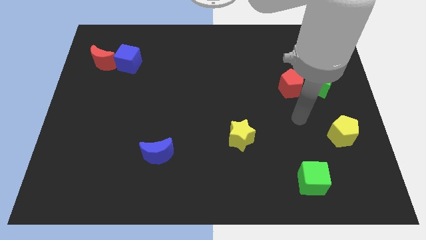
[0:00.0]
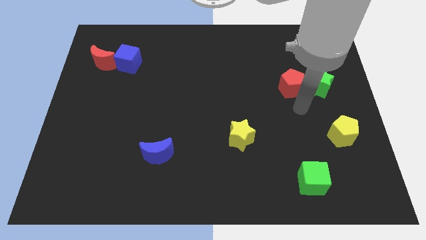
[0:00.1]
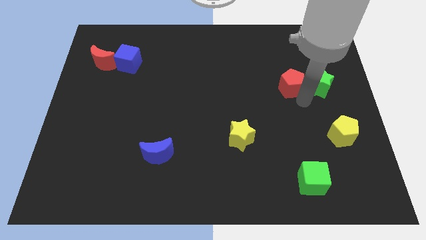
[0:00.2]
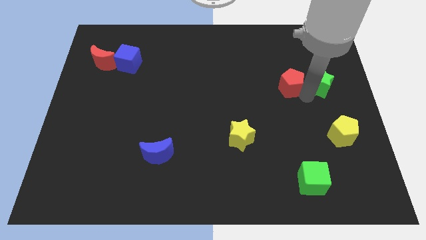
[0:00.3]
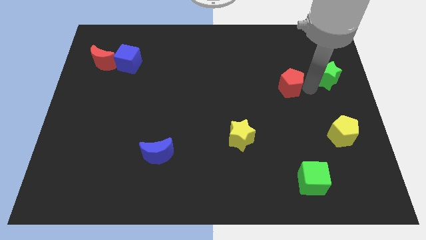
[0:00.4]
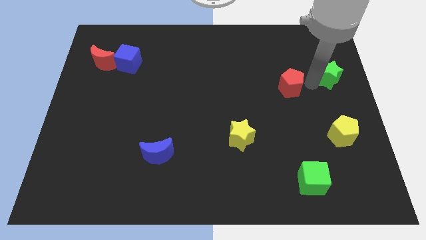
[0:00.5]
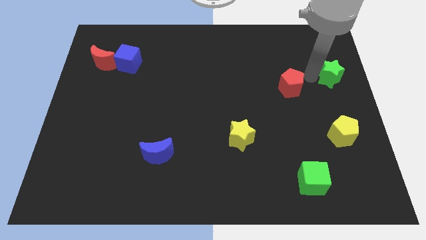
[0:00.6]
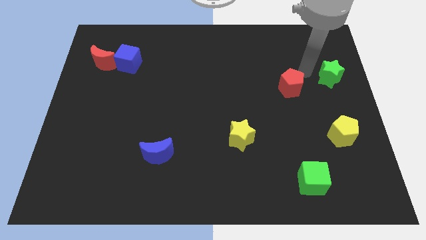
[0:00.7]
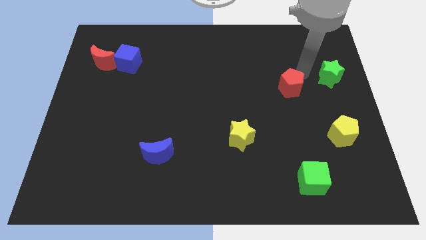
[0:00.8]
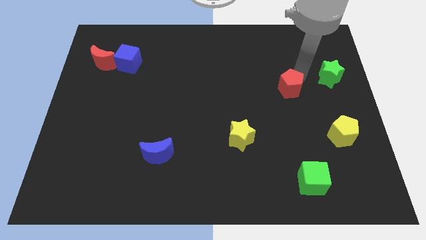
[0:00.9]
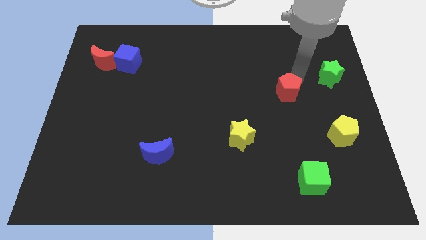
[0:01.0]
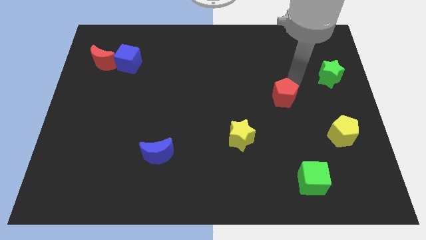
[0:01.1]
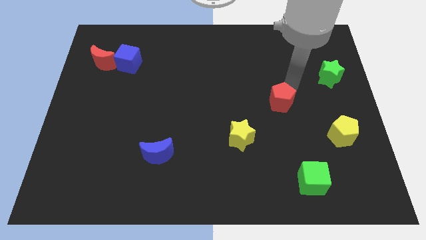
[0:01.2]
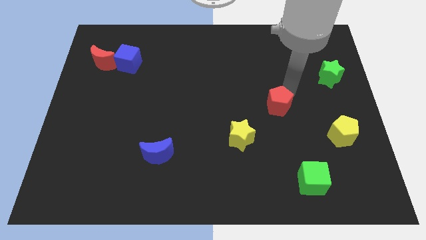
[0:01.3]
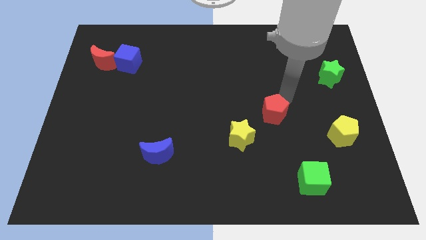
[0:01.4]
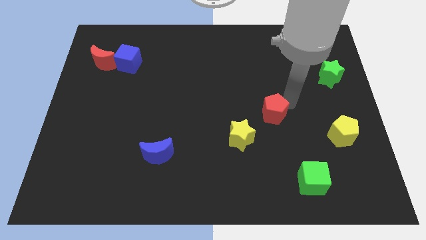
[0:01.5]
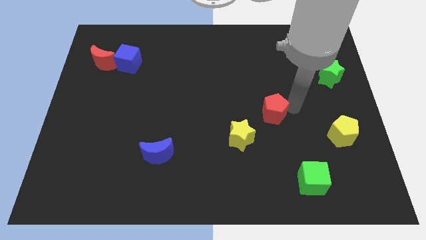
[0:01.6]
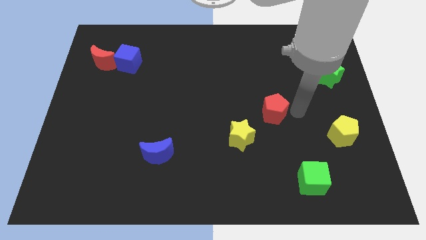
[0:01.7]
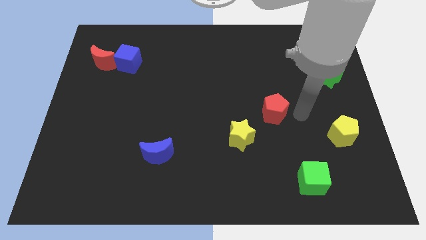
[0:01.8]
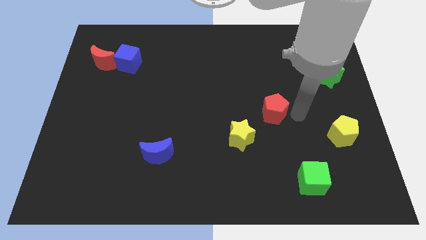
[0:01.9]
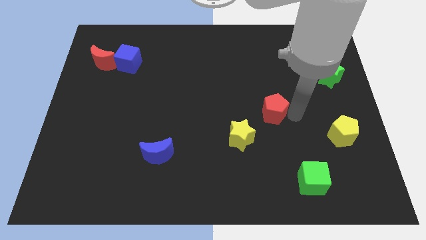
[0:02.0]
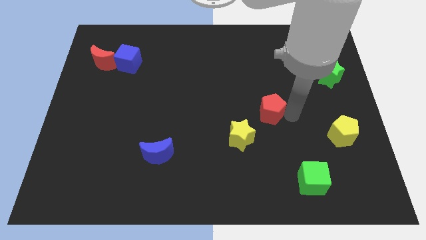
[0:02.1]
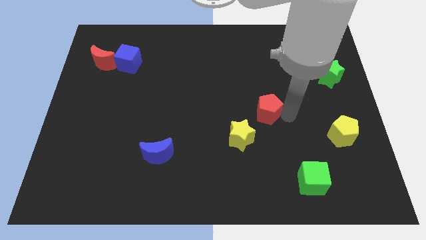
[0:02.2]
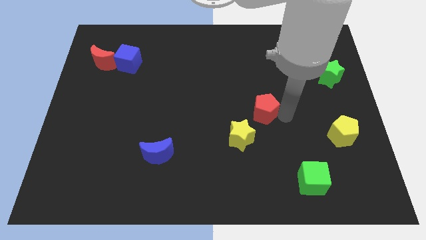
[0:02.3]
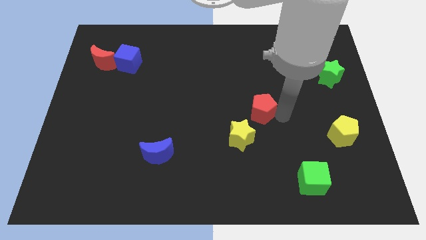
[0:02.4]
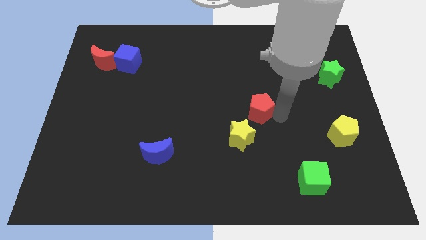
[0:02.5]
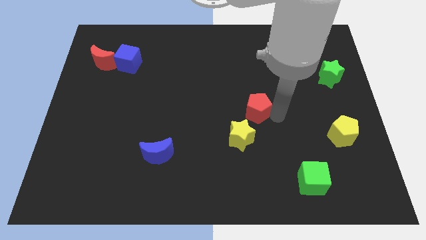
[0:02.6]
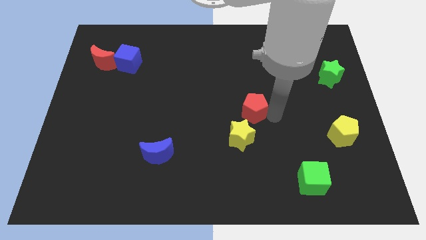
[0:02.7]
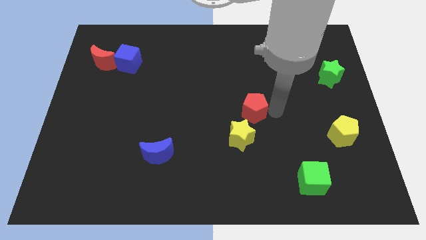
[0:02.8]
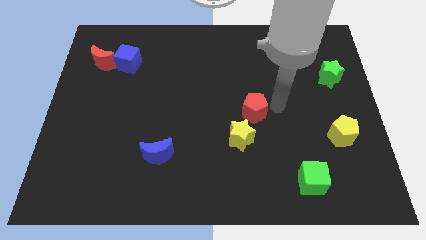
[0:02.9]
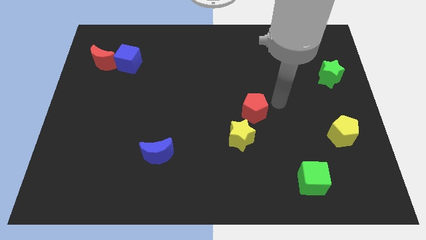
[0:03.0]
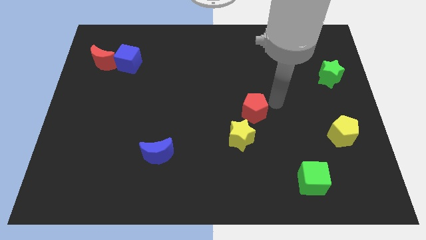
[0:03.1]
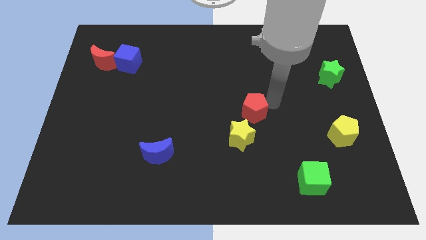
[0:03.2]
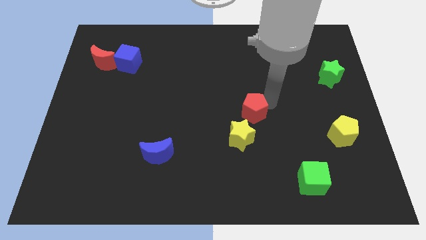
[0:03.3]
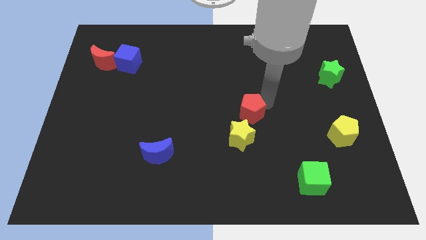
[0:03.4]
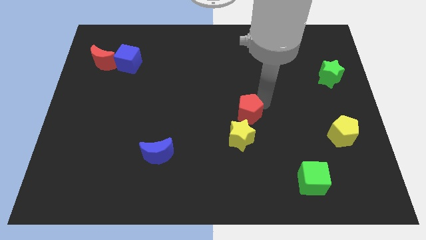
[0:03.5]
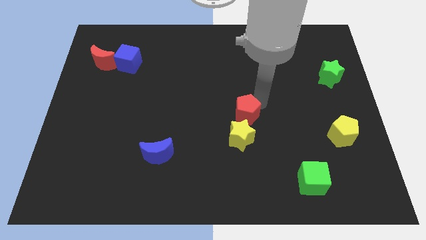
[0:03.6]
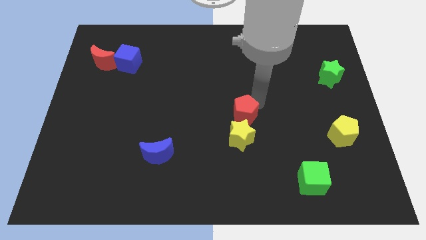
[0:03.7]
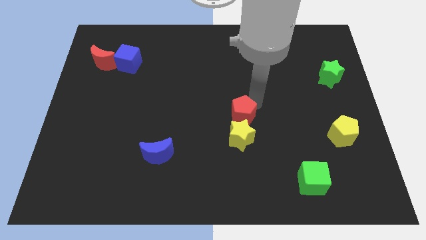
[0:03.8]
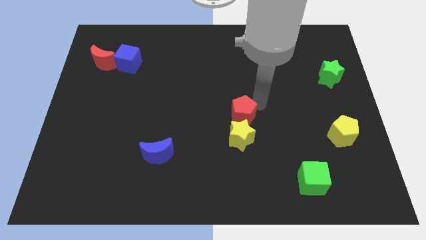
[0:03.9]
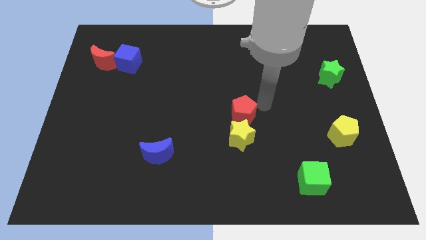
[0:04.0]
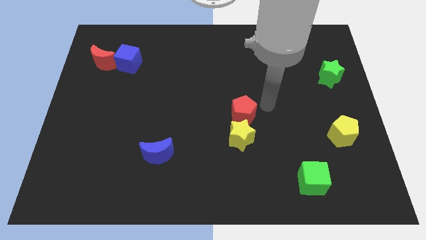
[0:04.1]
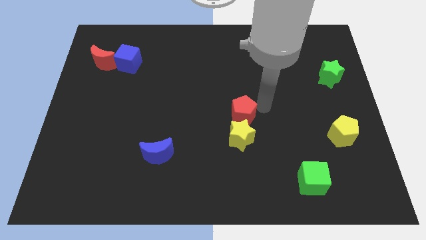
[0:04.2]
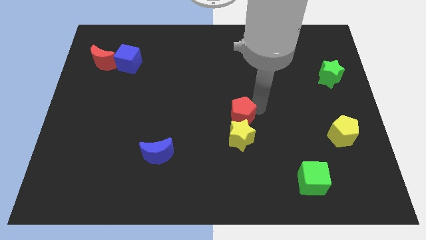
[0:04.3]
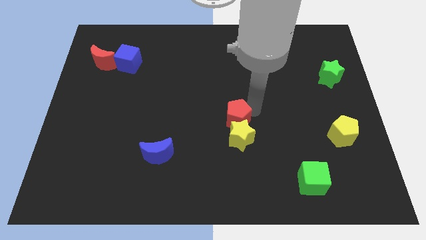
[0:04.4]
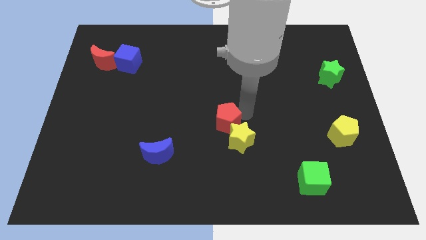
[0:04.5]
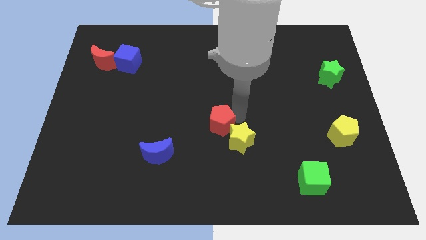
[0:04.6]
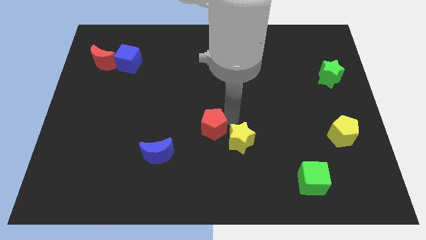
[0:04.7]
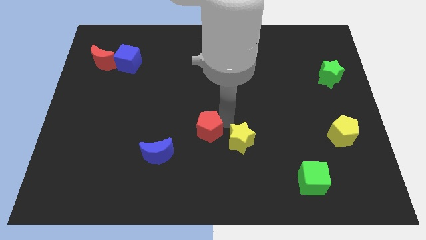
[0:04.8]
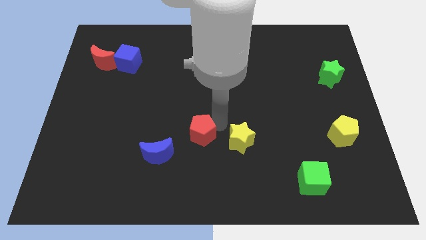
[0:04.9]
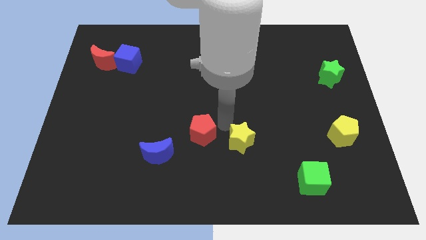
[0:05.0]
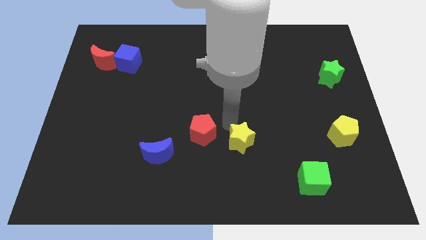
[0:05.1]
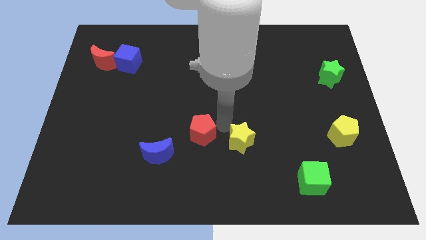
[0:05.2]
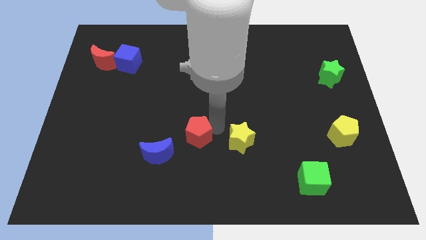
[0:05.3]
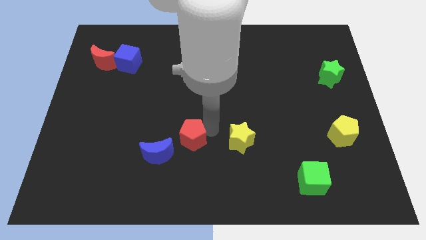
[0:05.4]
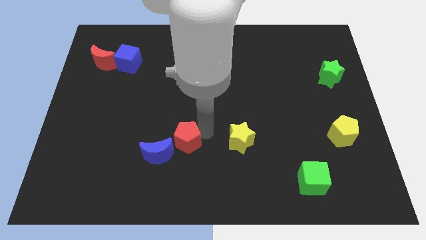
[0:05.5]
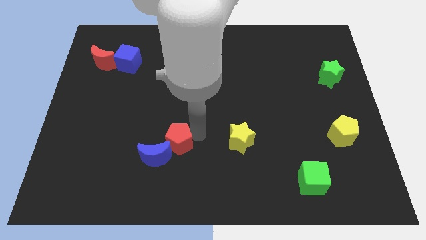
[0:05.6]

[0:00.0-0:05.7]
slide the red pentagon close to the blue moon

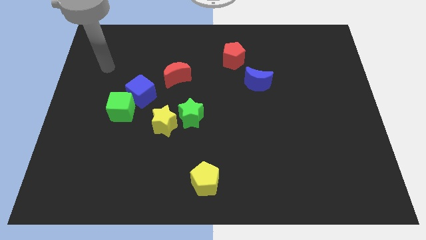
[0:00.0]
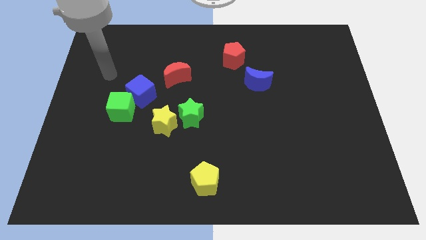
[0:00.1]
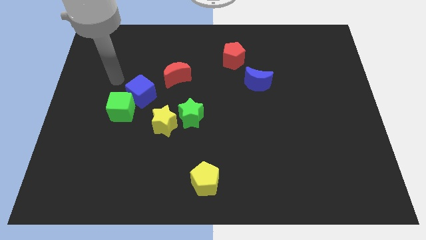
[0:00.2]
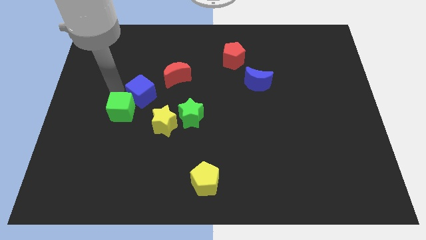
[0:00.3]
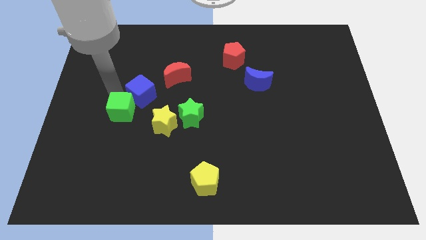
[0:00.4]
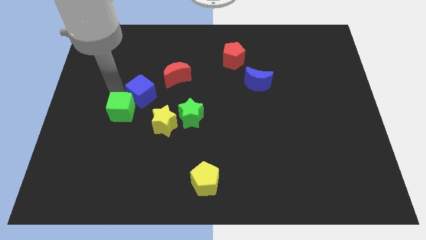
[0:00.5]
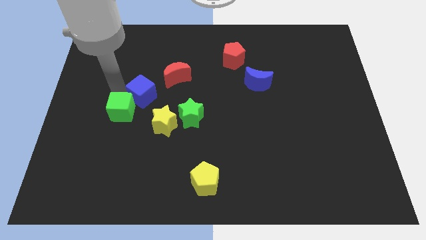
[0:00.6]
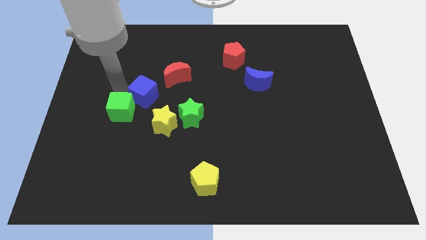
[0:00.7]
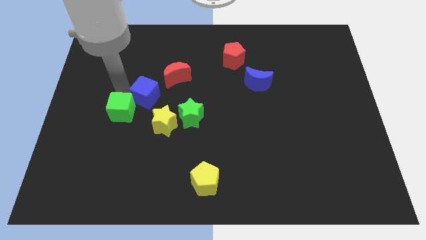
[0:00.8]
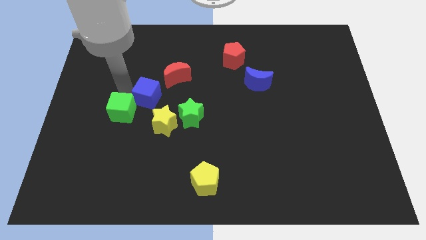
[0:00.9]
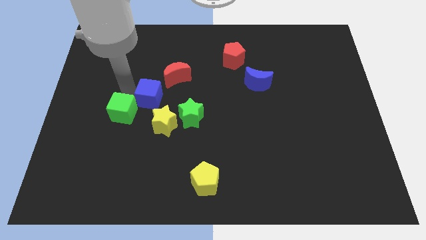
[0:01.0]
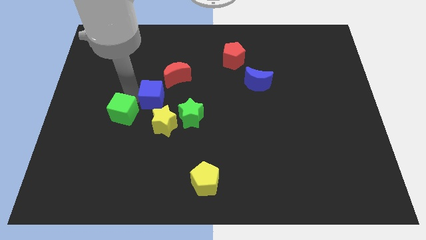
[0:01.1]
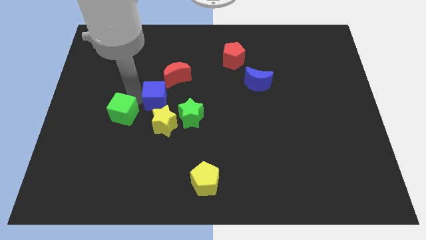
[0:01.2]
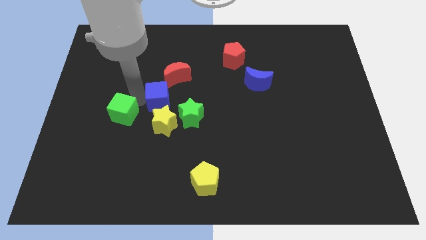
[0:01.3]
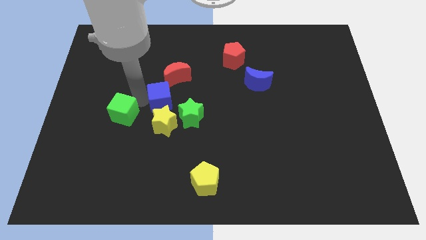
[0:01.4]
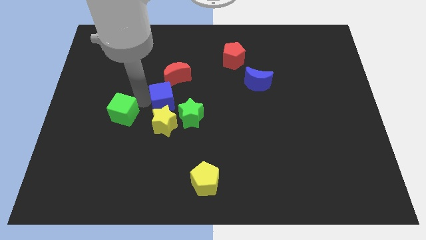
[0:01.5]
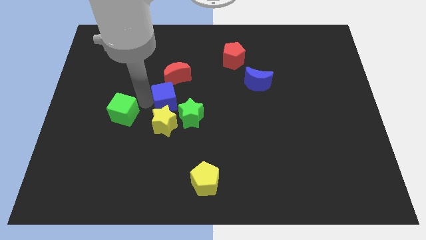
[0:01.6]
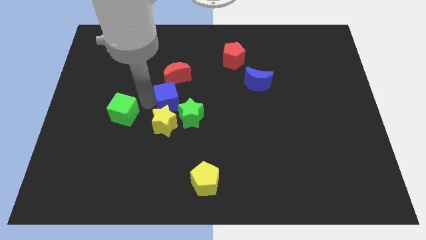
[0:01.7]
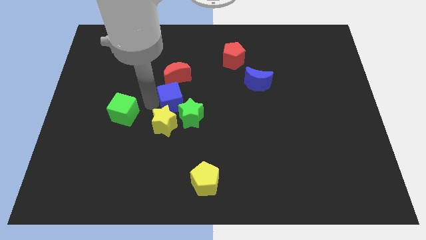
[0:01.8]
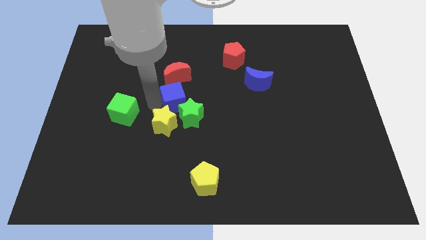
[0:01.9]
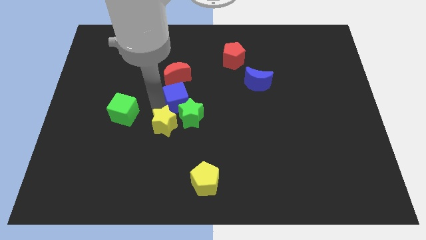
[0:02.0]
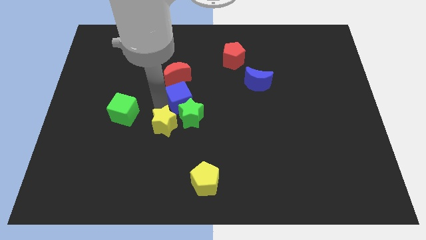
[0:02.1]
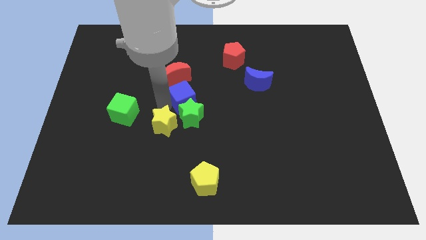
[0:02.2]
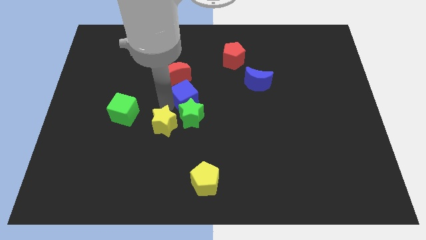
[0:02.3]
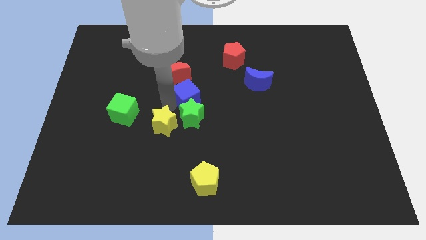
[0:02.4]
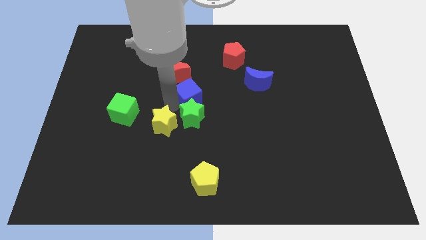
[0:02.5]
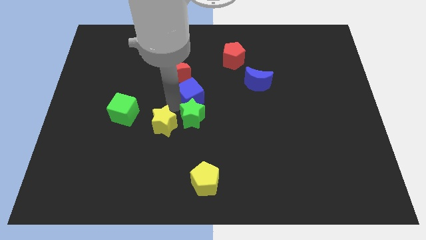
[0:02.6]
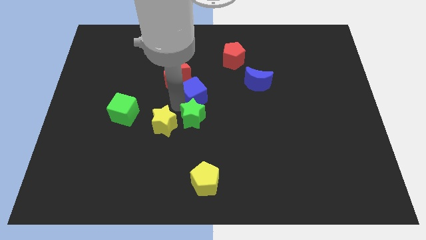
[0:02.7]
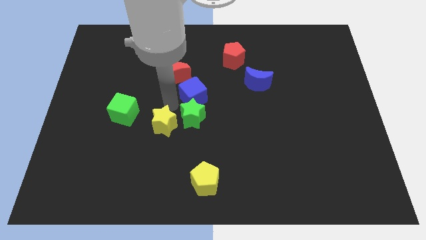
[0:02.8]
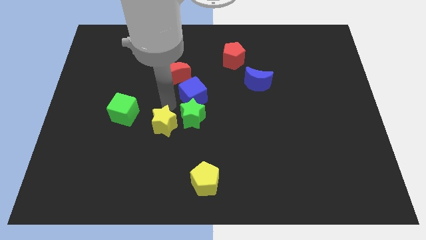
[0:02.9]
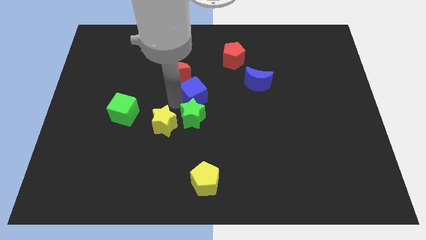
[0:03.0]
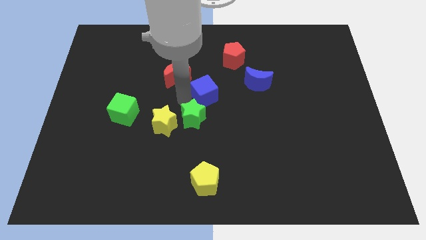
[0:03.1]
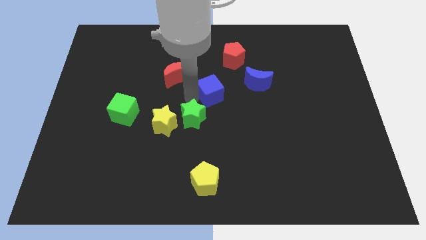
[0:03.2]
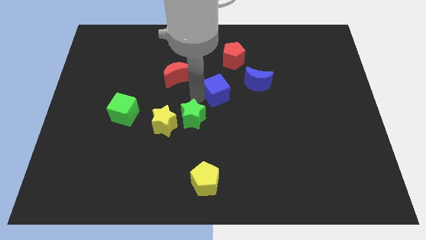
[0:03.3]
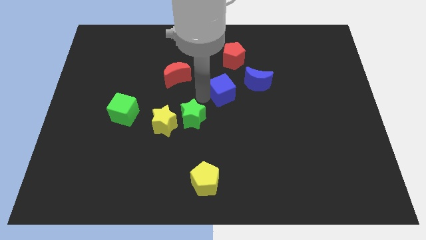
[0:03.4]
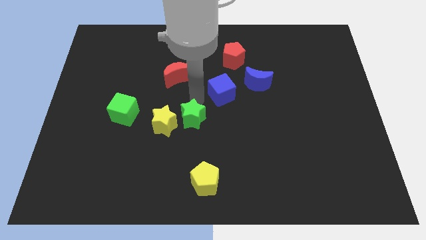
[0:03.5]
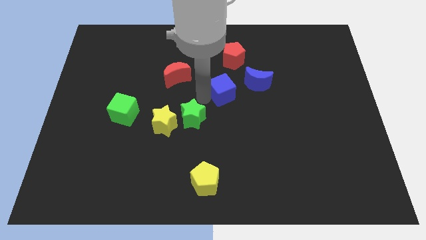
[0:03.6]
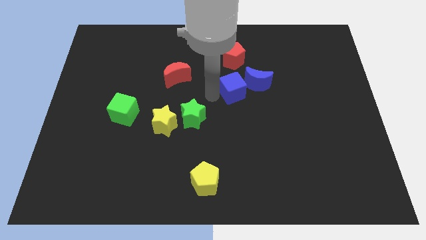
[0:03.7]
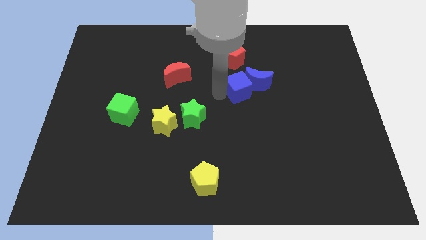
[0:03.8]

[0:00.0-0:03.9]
slide the blue cube towards the blue moon
